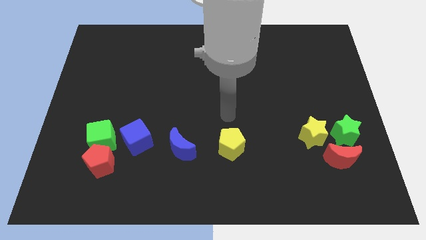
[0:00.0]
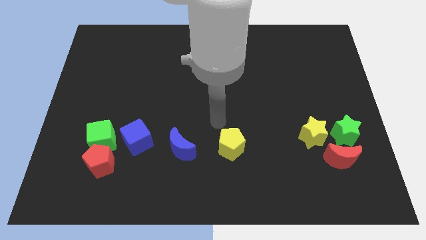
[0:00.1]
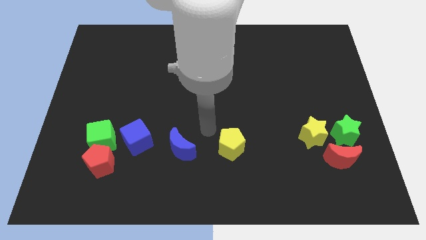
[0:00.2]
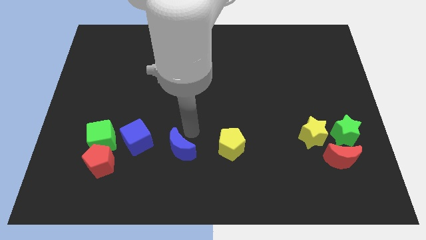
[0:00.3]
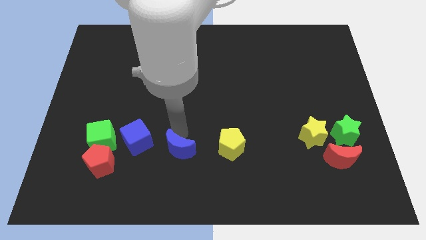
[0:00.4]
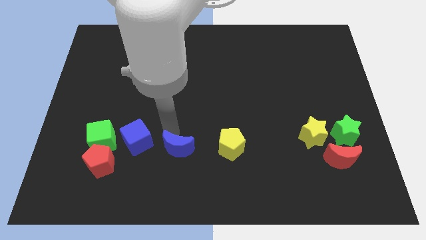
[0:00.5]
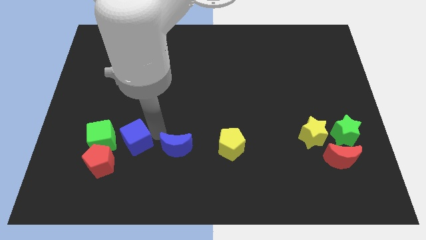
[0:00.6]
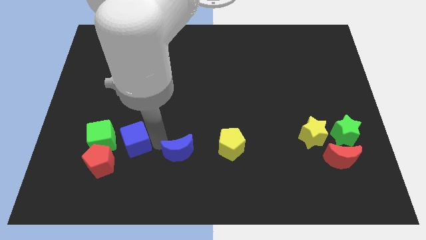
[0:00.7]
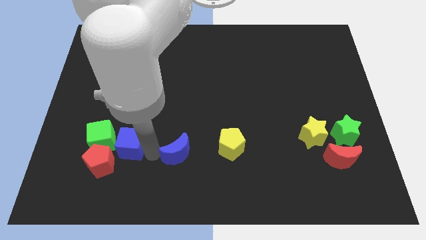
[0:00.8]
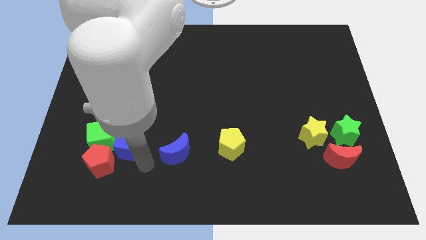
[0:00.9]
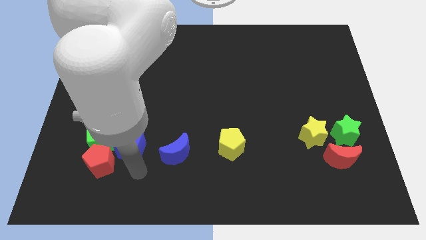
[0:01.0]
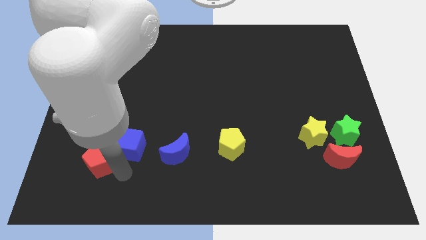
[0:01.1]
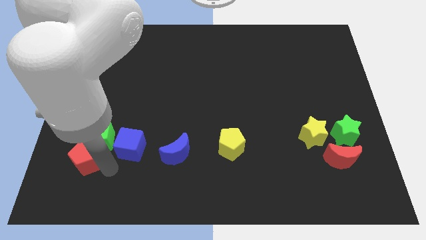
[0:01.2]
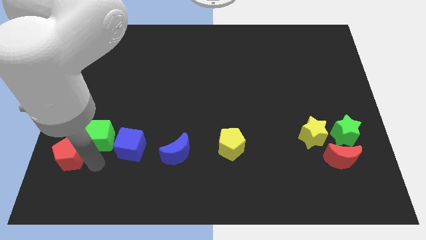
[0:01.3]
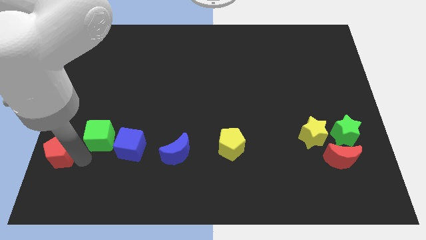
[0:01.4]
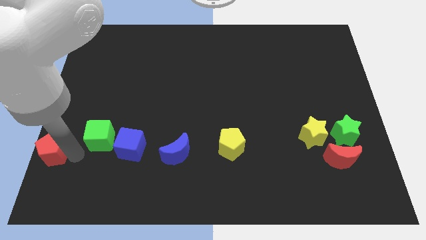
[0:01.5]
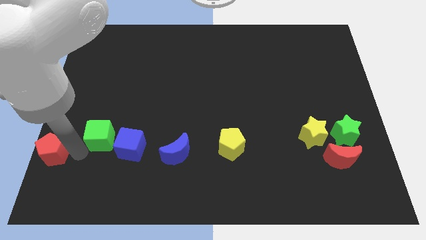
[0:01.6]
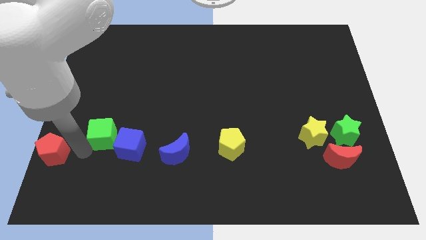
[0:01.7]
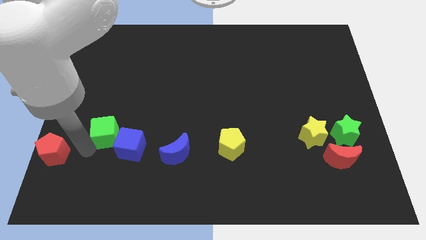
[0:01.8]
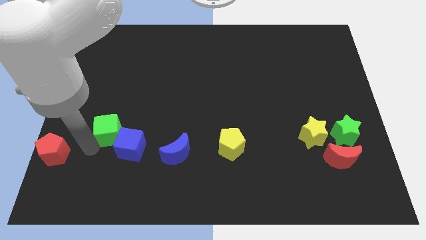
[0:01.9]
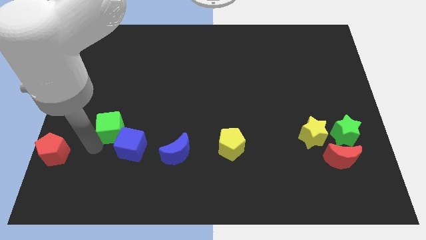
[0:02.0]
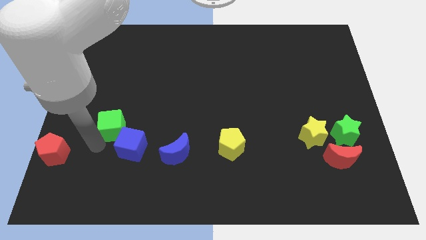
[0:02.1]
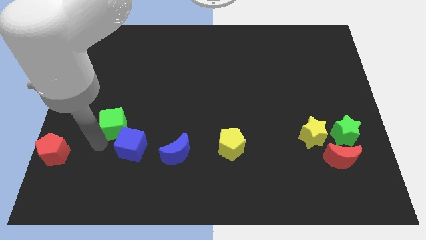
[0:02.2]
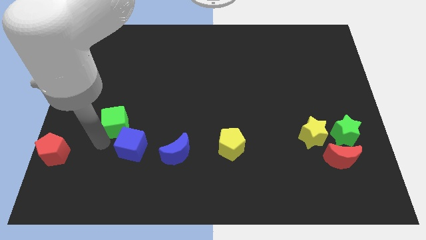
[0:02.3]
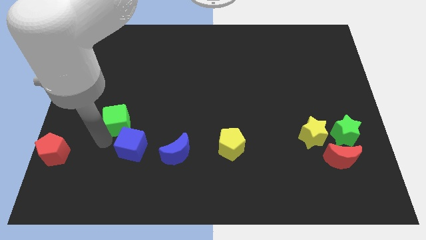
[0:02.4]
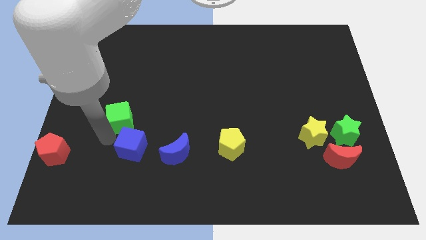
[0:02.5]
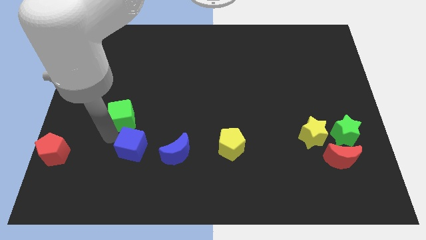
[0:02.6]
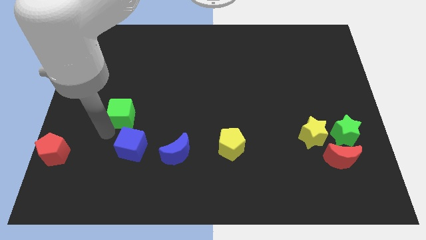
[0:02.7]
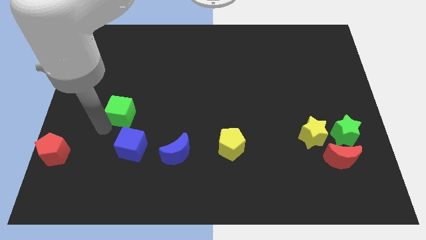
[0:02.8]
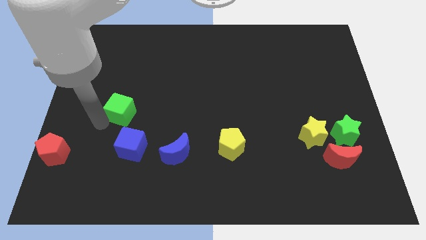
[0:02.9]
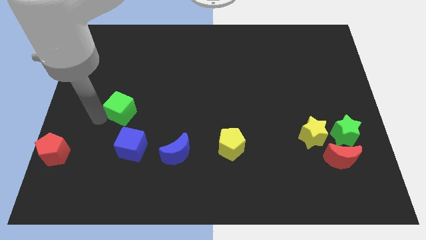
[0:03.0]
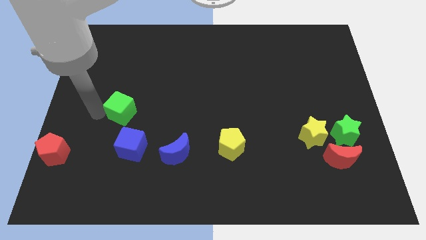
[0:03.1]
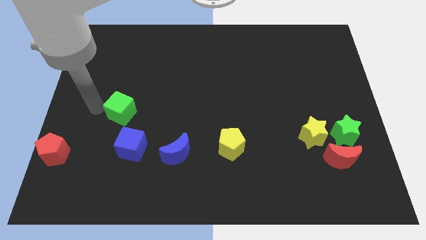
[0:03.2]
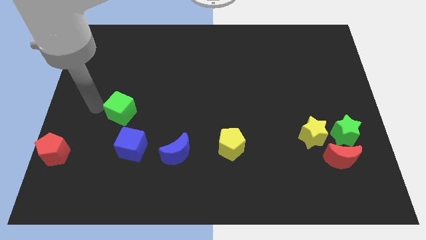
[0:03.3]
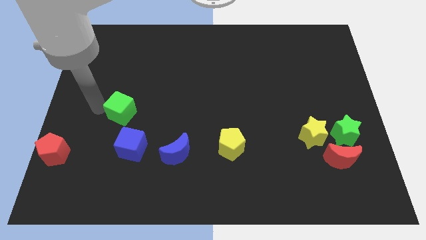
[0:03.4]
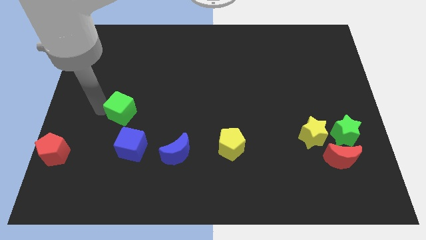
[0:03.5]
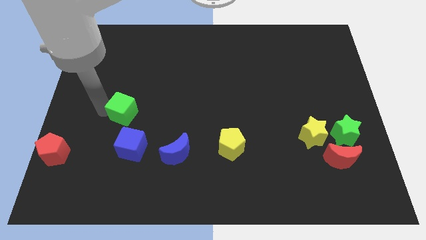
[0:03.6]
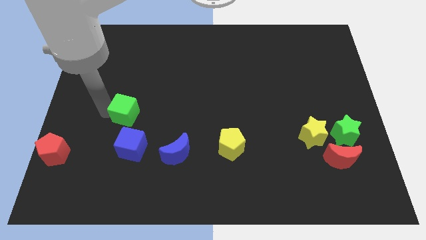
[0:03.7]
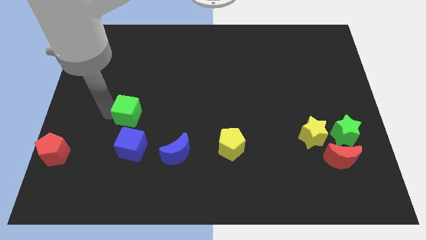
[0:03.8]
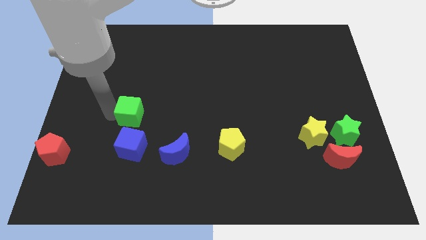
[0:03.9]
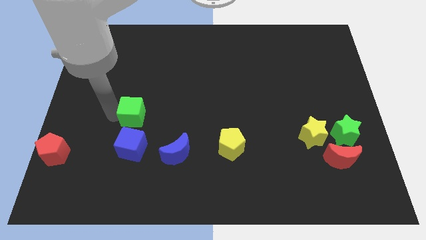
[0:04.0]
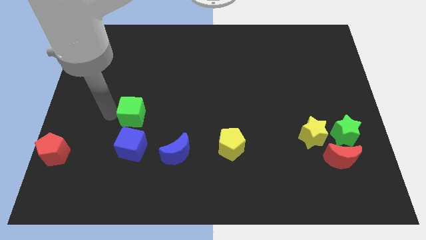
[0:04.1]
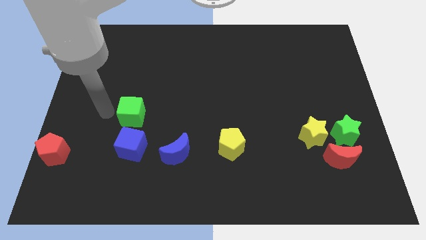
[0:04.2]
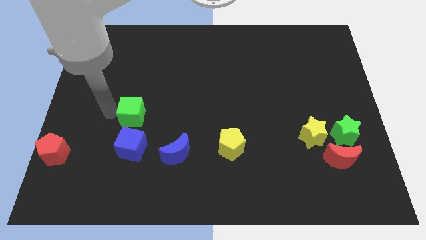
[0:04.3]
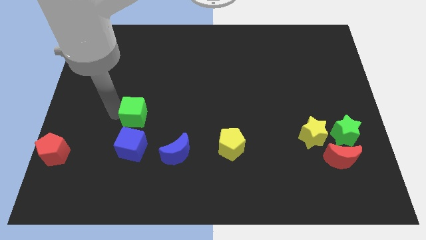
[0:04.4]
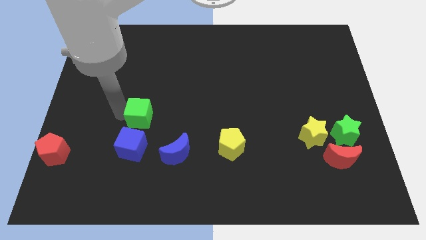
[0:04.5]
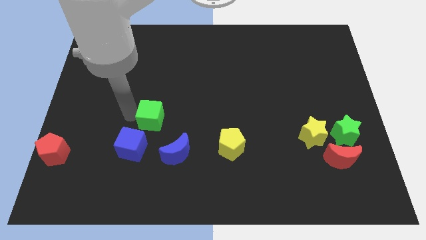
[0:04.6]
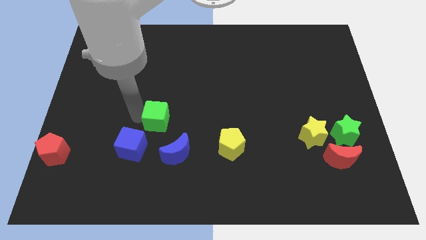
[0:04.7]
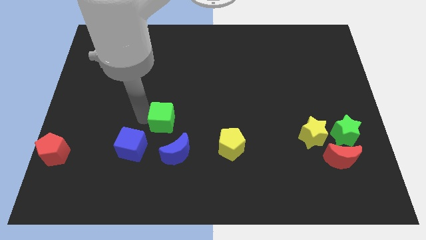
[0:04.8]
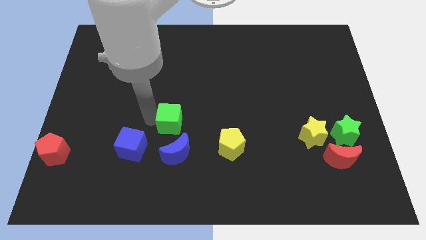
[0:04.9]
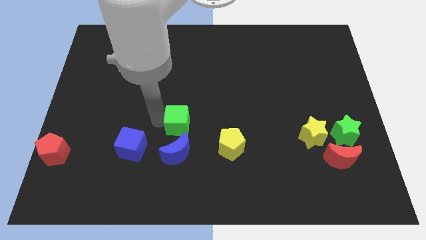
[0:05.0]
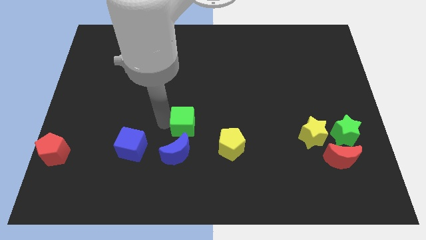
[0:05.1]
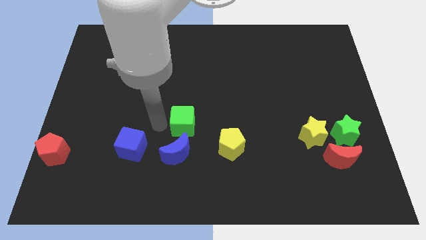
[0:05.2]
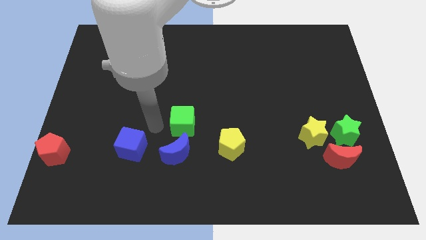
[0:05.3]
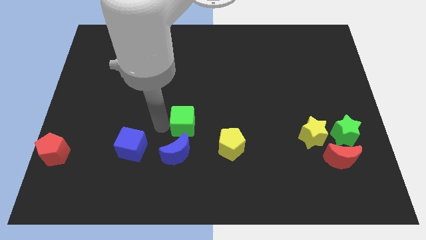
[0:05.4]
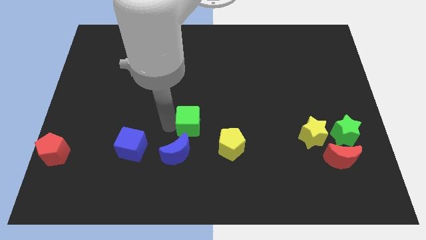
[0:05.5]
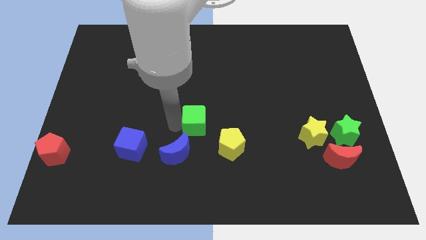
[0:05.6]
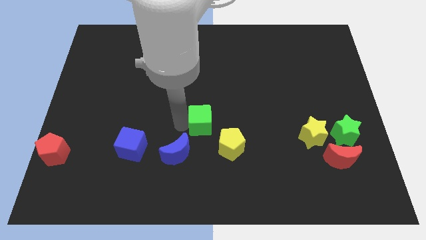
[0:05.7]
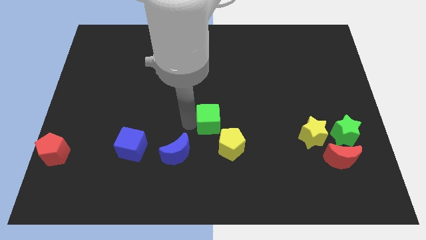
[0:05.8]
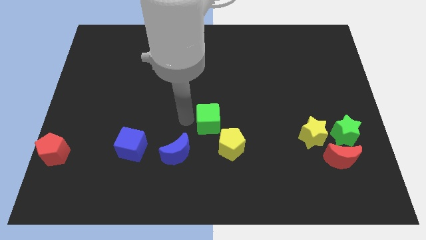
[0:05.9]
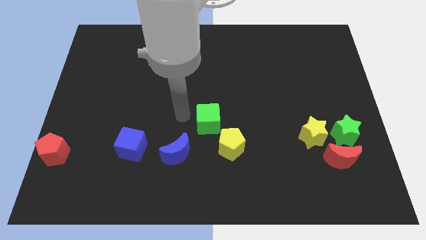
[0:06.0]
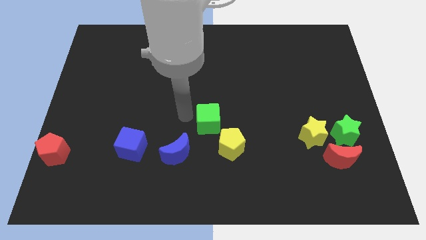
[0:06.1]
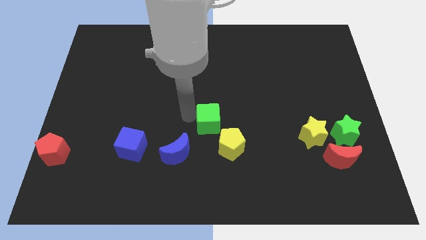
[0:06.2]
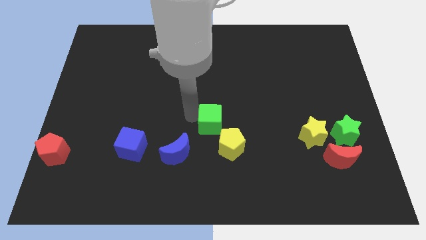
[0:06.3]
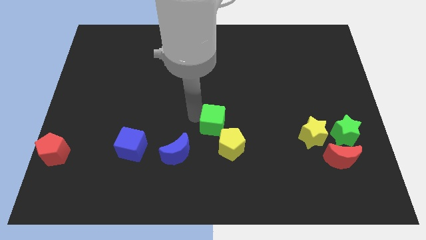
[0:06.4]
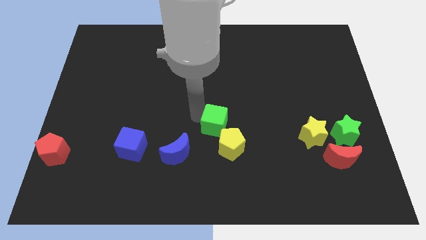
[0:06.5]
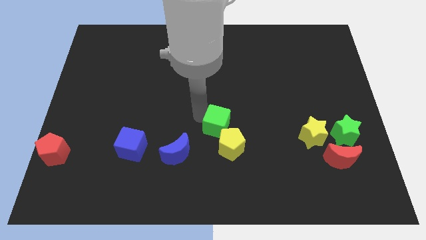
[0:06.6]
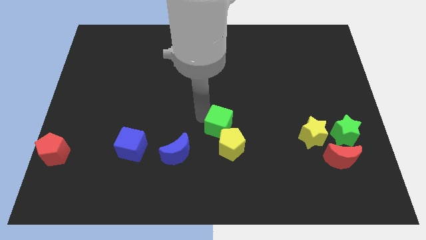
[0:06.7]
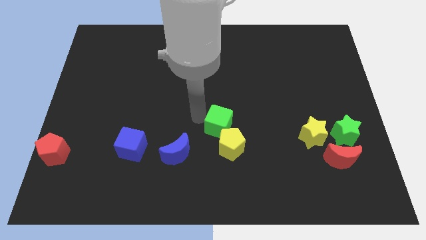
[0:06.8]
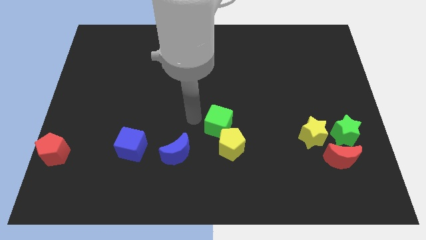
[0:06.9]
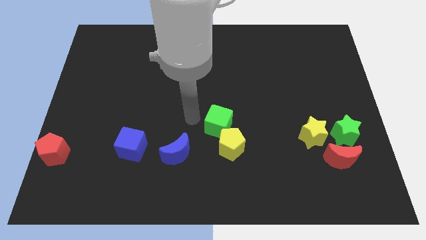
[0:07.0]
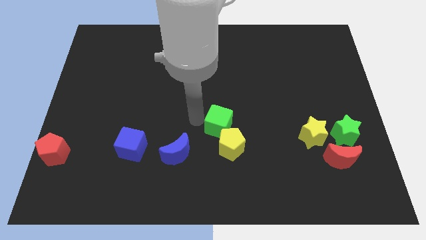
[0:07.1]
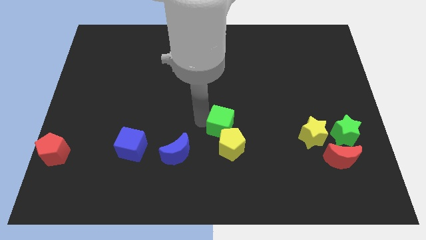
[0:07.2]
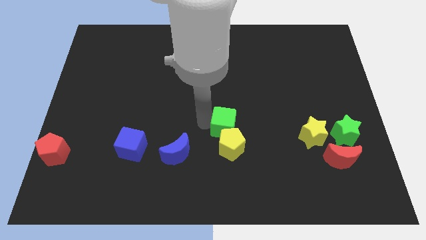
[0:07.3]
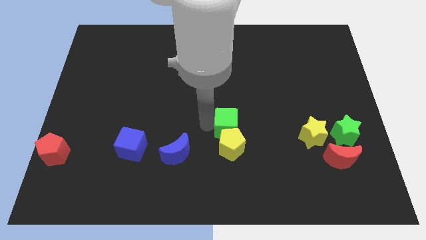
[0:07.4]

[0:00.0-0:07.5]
put the green cube to the top right of the yellow pentagon
